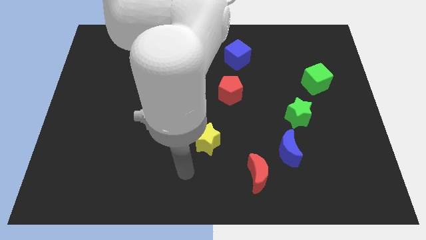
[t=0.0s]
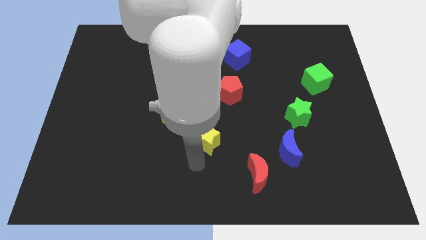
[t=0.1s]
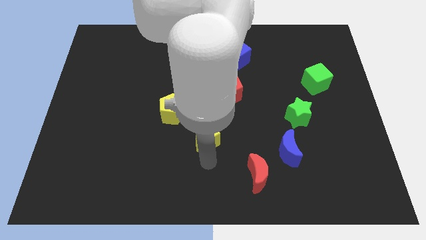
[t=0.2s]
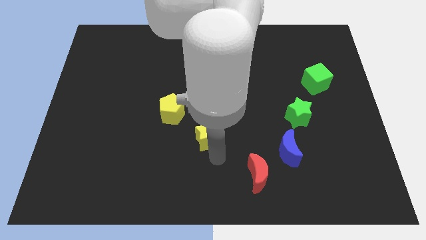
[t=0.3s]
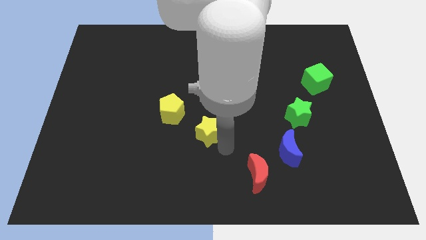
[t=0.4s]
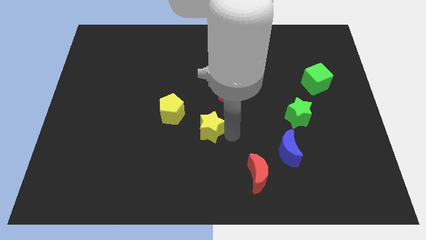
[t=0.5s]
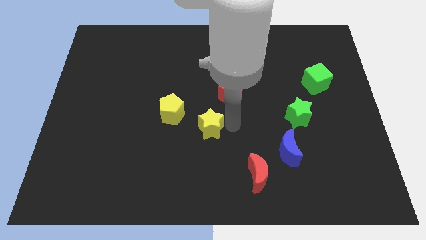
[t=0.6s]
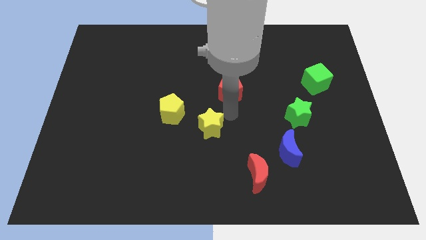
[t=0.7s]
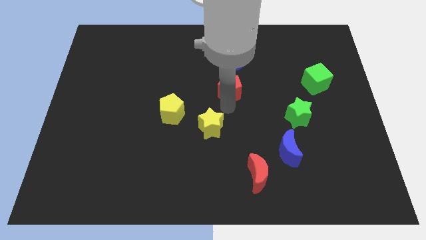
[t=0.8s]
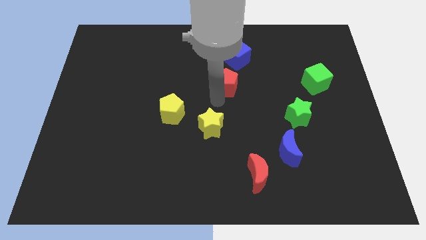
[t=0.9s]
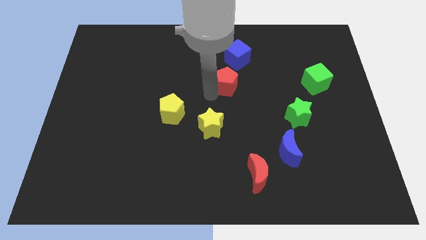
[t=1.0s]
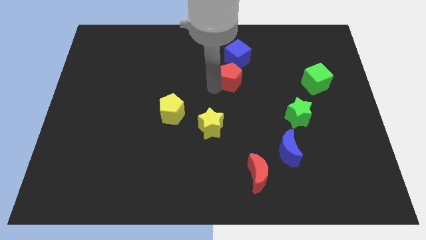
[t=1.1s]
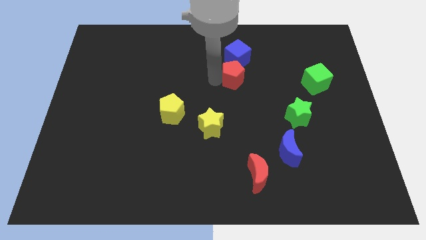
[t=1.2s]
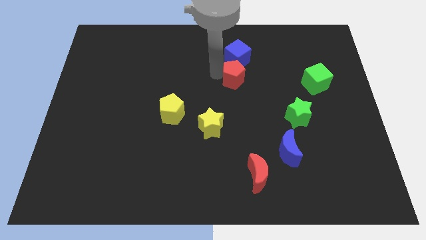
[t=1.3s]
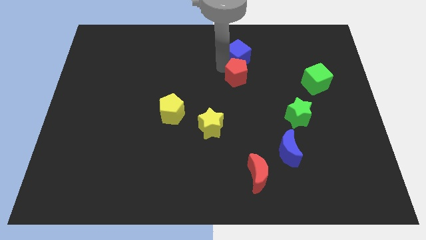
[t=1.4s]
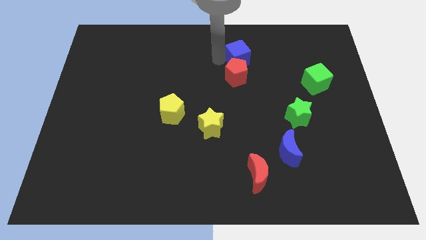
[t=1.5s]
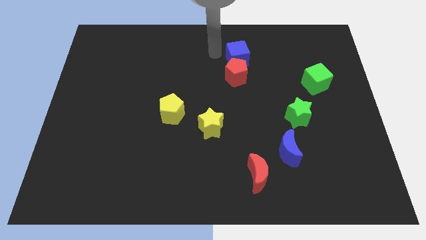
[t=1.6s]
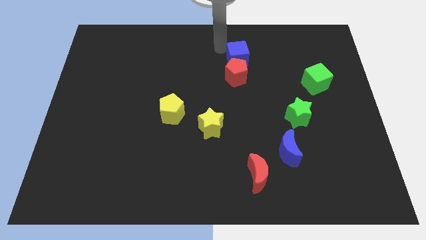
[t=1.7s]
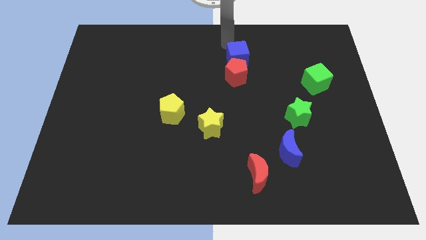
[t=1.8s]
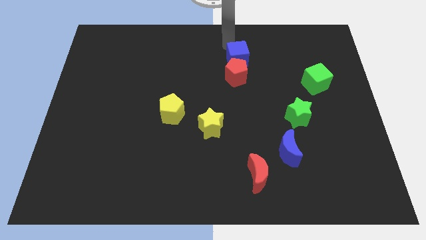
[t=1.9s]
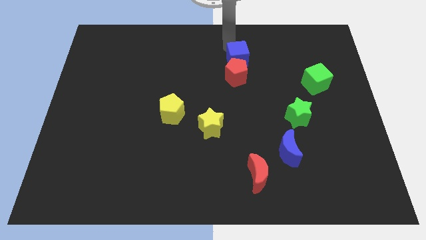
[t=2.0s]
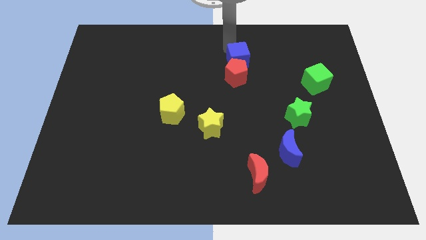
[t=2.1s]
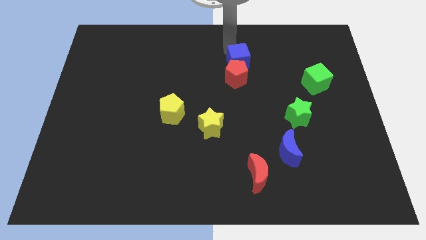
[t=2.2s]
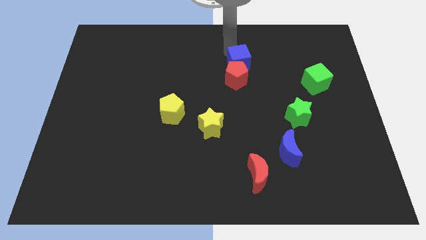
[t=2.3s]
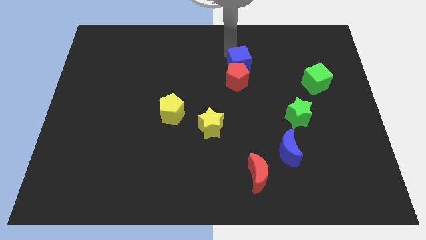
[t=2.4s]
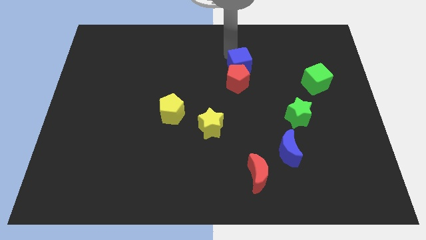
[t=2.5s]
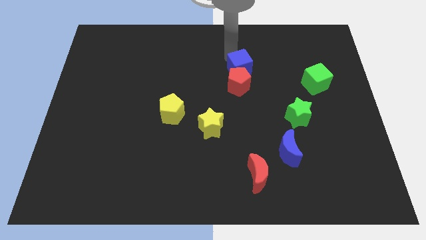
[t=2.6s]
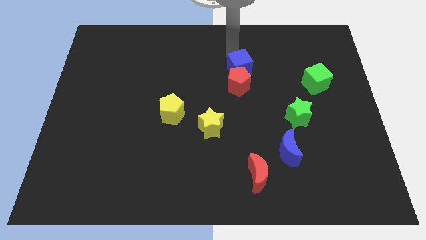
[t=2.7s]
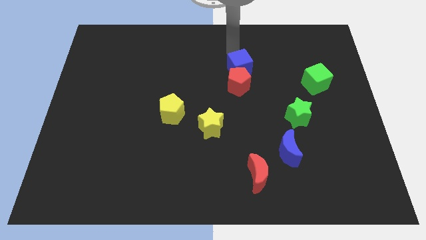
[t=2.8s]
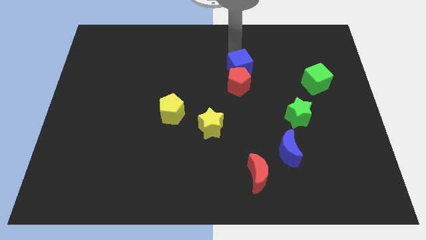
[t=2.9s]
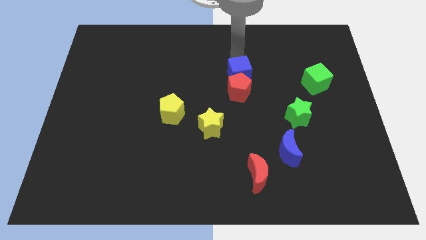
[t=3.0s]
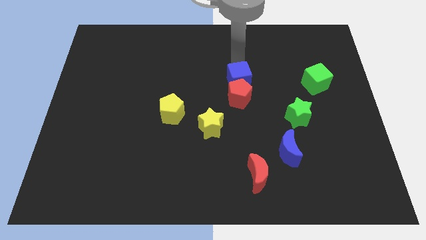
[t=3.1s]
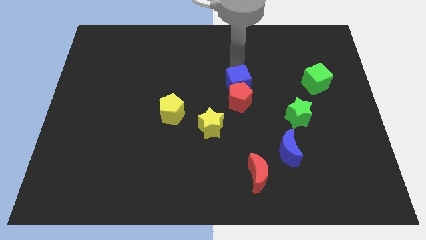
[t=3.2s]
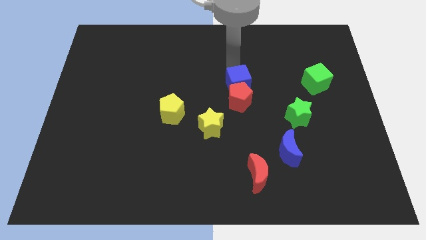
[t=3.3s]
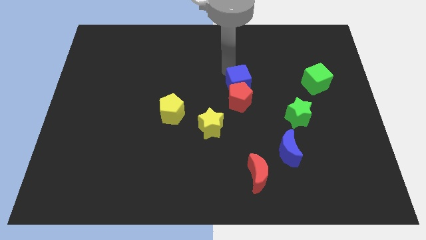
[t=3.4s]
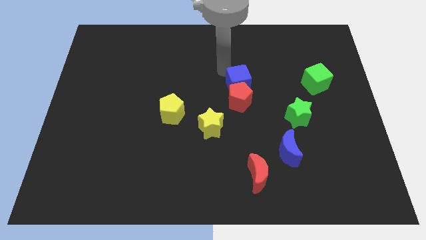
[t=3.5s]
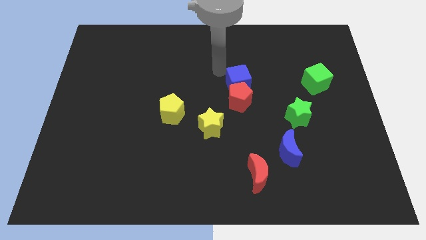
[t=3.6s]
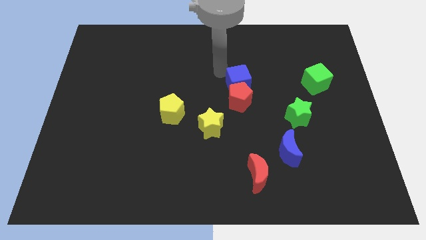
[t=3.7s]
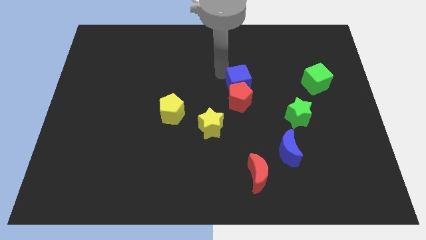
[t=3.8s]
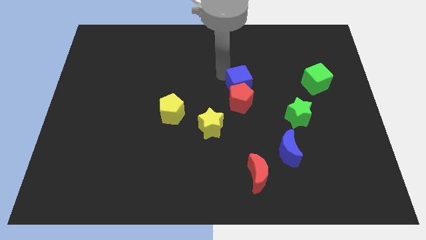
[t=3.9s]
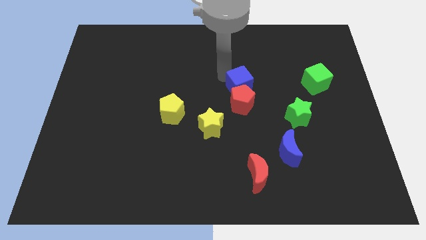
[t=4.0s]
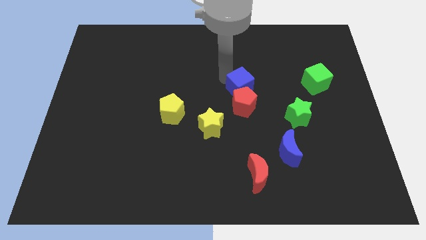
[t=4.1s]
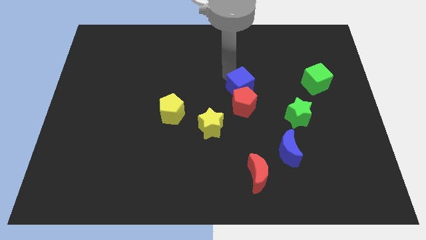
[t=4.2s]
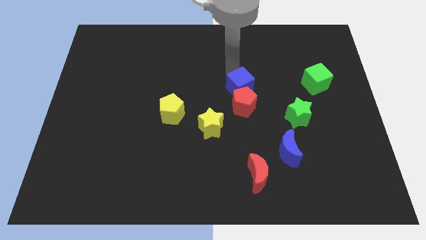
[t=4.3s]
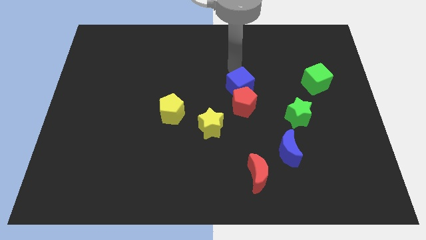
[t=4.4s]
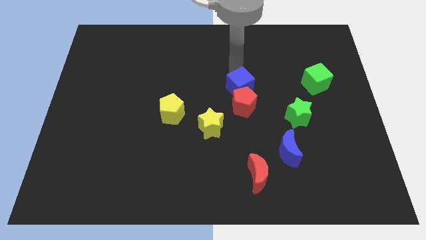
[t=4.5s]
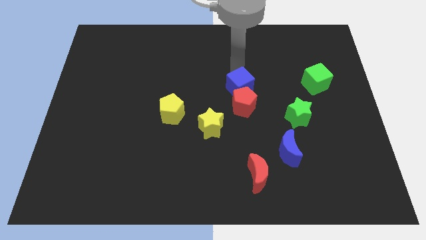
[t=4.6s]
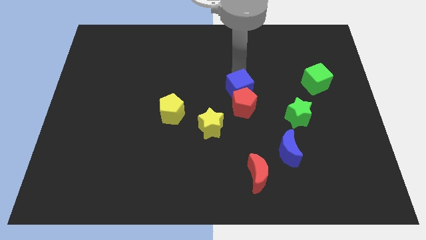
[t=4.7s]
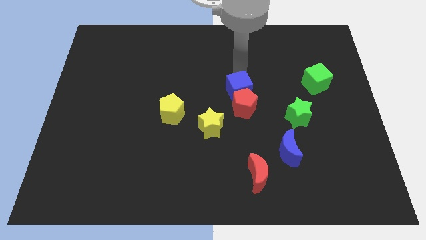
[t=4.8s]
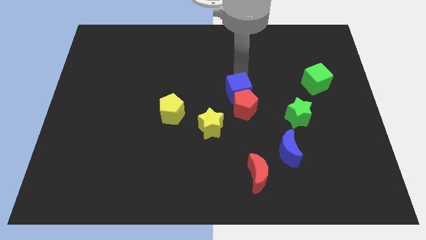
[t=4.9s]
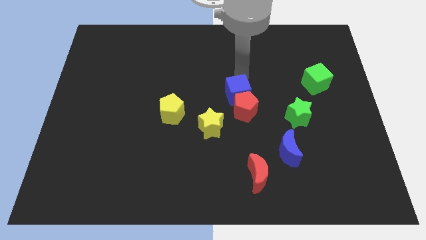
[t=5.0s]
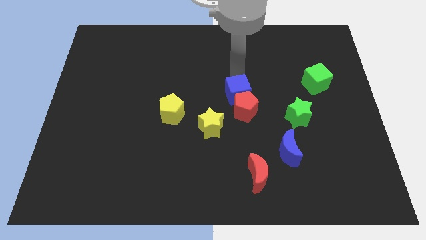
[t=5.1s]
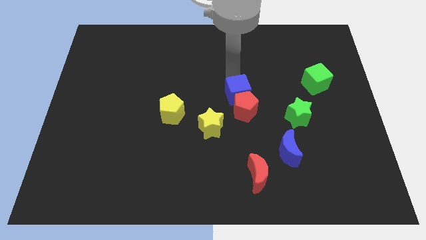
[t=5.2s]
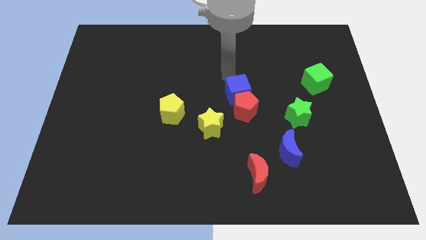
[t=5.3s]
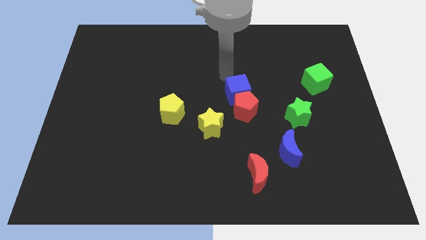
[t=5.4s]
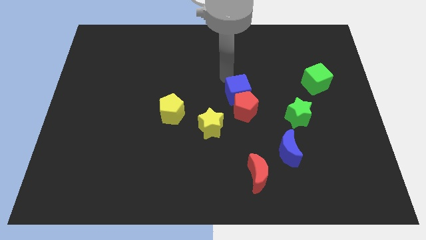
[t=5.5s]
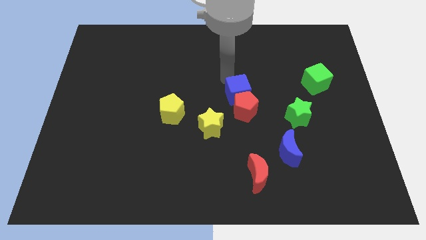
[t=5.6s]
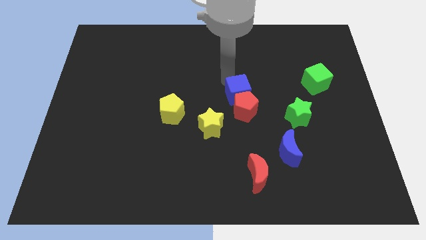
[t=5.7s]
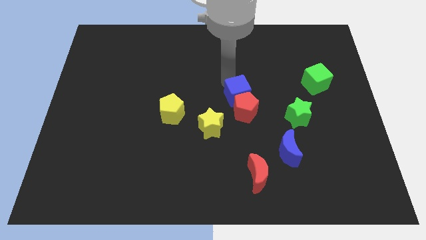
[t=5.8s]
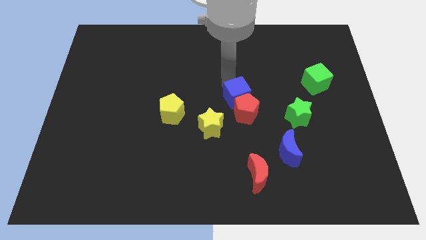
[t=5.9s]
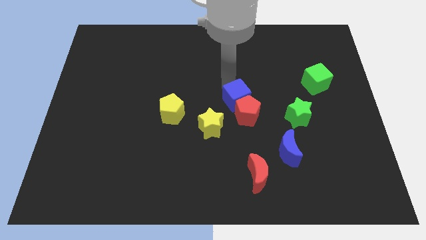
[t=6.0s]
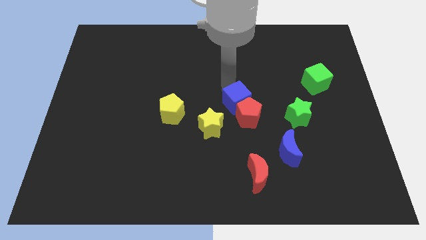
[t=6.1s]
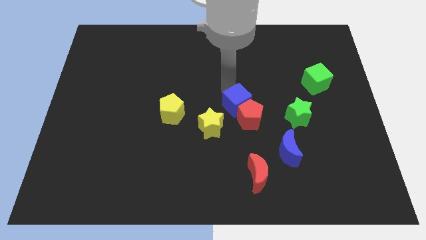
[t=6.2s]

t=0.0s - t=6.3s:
move the blue cube to the left side of the green star
